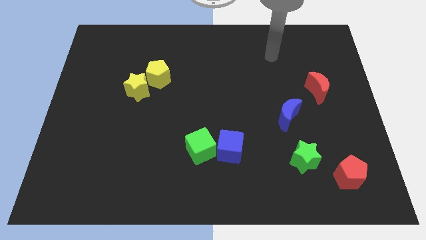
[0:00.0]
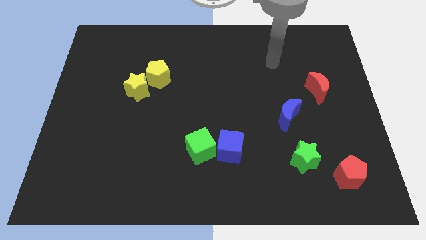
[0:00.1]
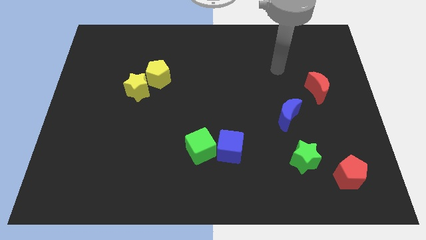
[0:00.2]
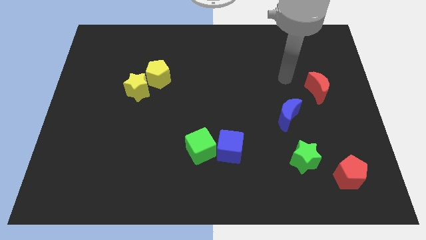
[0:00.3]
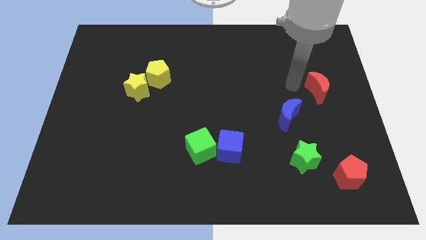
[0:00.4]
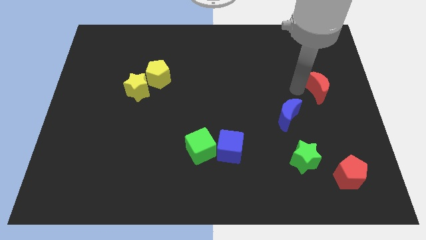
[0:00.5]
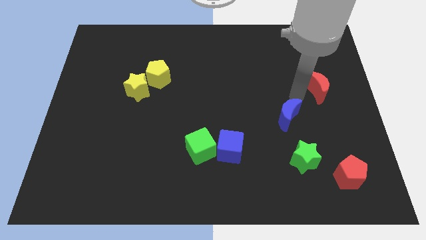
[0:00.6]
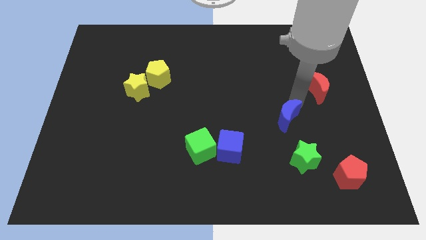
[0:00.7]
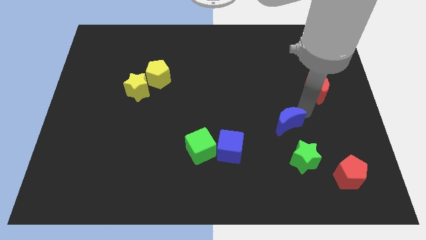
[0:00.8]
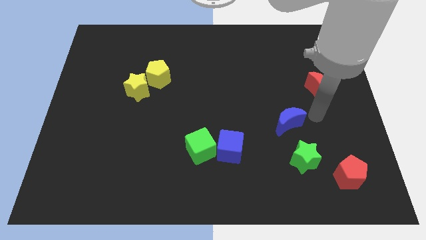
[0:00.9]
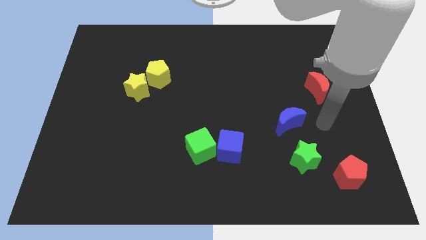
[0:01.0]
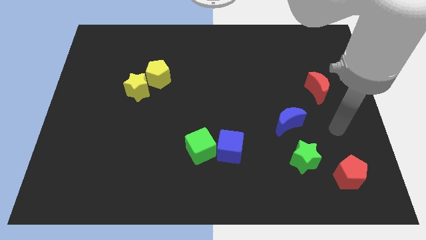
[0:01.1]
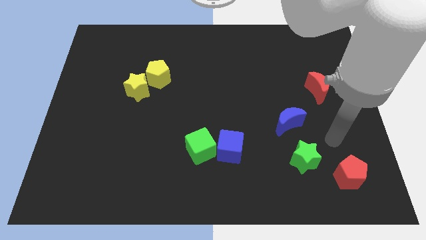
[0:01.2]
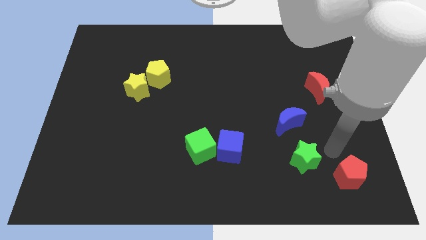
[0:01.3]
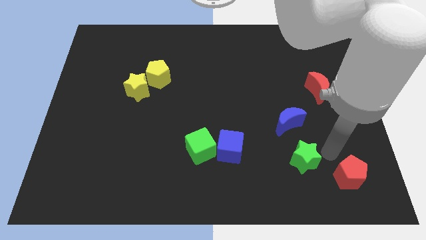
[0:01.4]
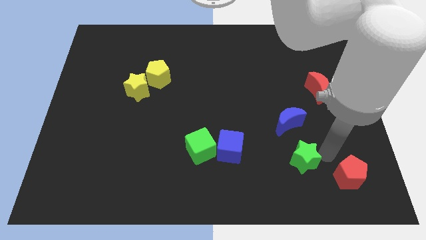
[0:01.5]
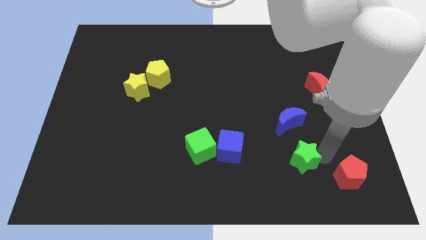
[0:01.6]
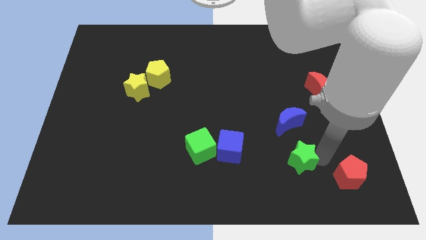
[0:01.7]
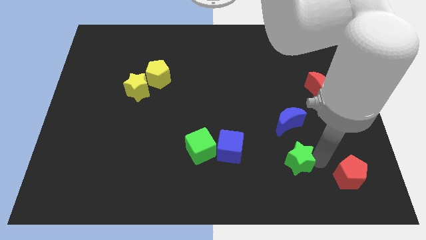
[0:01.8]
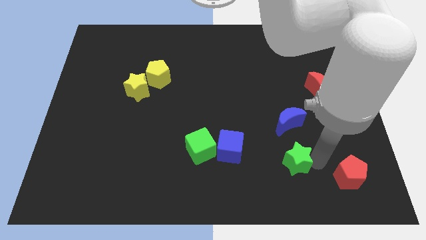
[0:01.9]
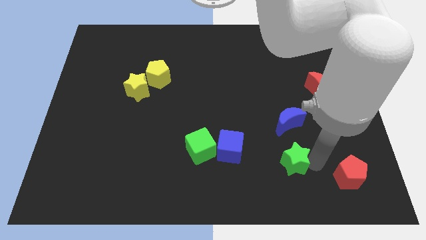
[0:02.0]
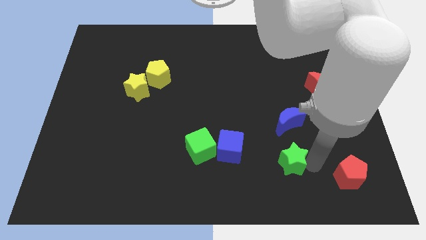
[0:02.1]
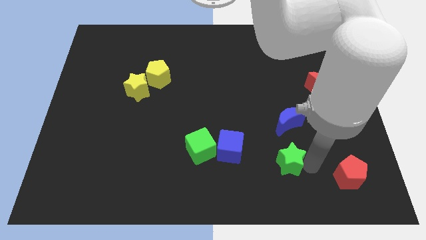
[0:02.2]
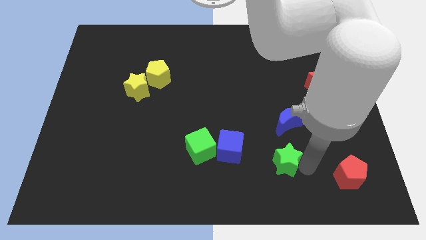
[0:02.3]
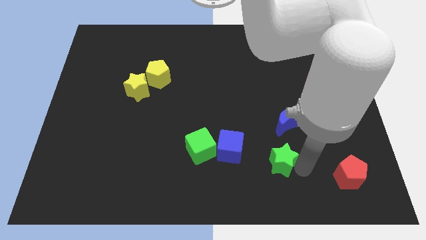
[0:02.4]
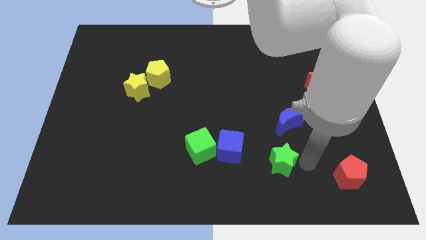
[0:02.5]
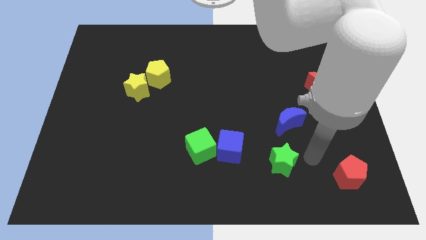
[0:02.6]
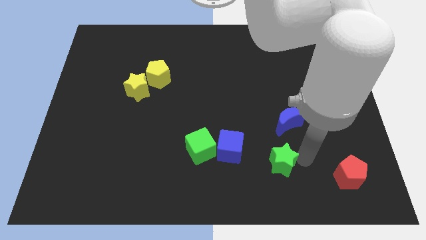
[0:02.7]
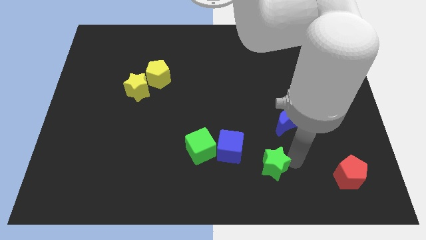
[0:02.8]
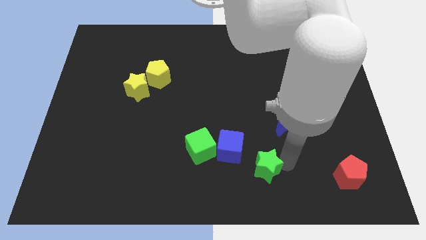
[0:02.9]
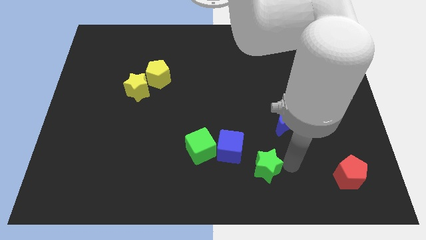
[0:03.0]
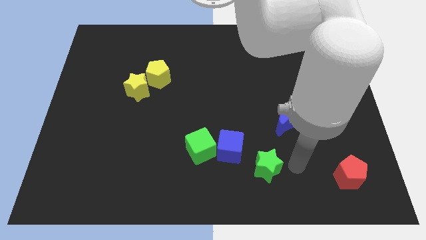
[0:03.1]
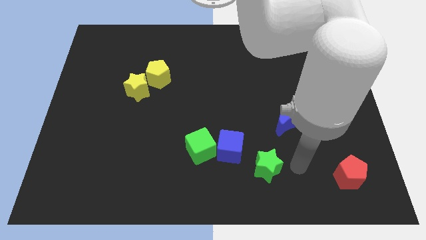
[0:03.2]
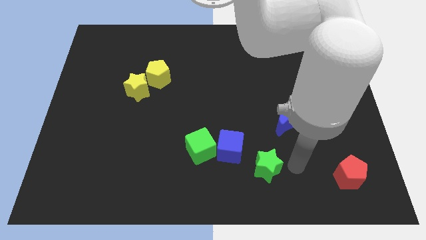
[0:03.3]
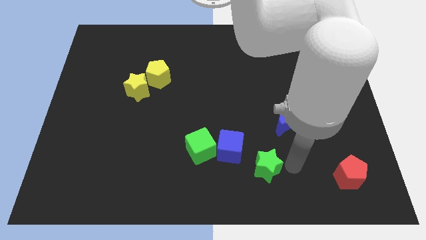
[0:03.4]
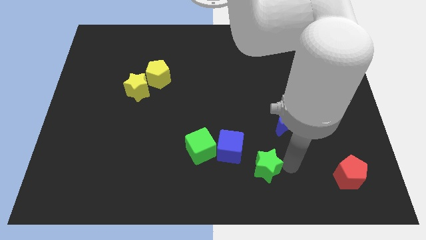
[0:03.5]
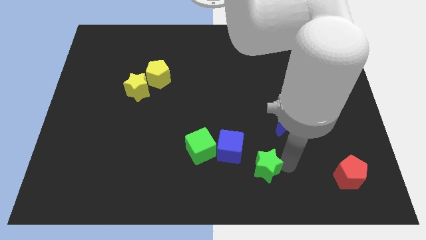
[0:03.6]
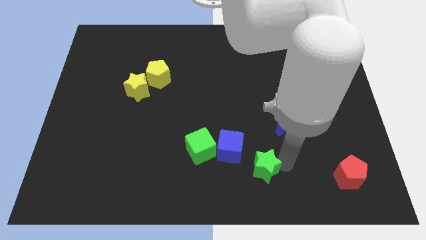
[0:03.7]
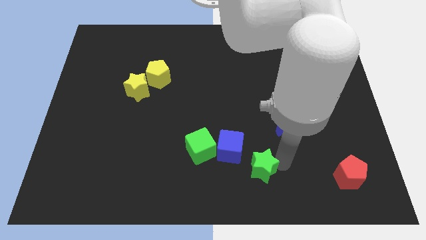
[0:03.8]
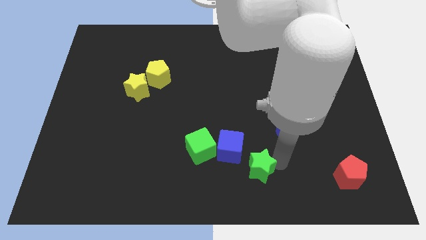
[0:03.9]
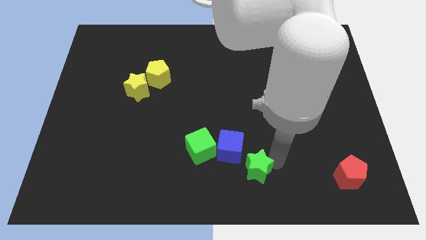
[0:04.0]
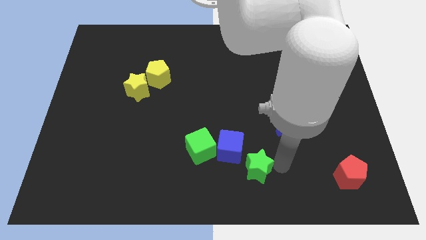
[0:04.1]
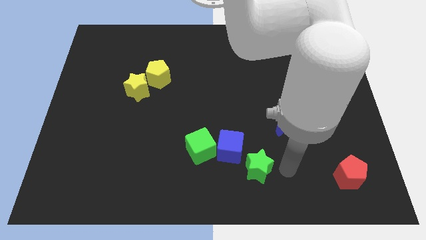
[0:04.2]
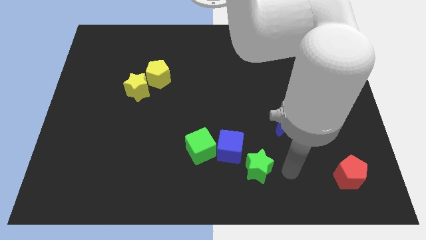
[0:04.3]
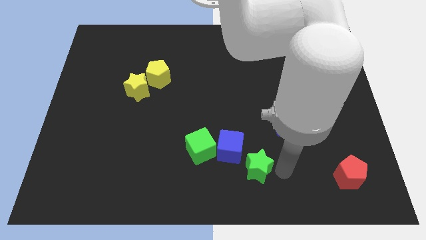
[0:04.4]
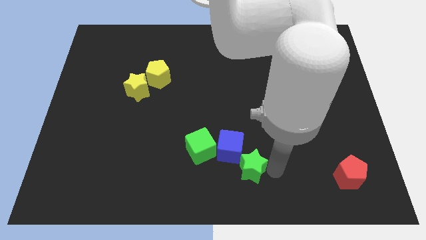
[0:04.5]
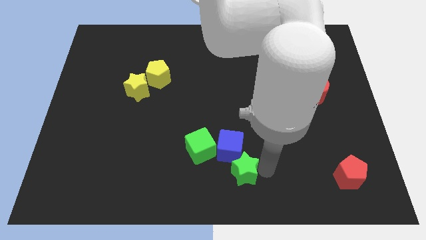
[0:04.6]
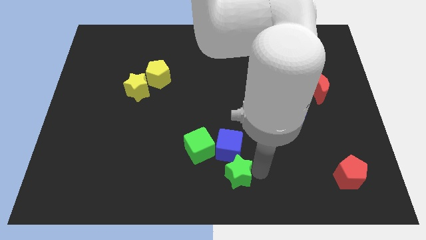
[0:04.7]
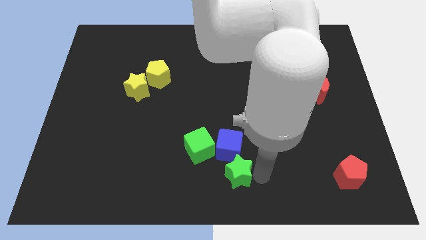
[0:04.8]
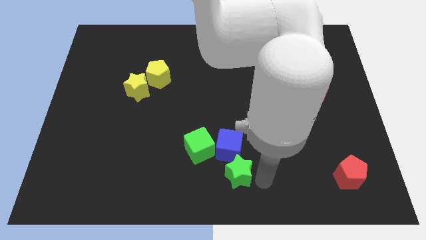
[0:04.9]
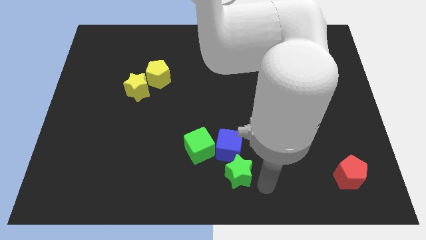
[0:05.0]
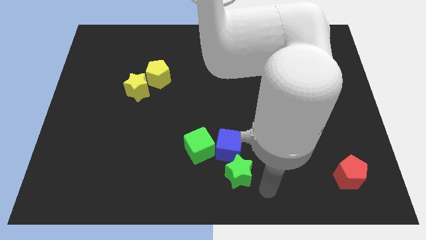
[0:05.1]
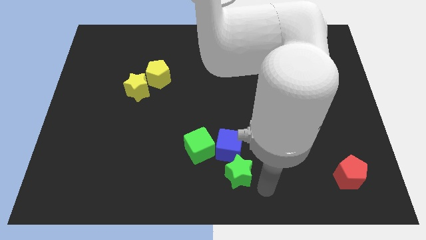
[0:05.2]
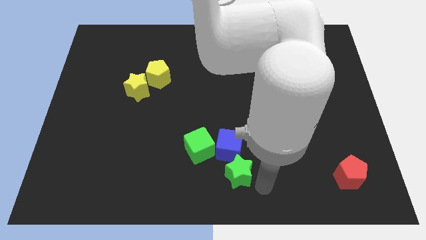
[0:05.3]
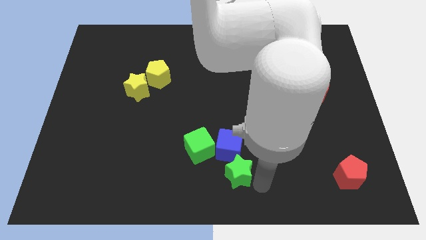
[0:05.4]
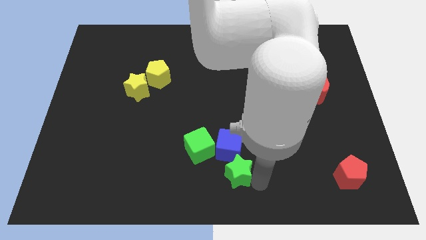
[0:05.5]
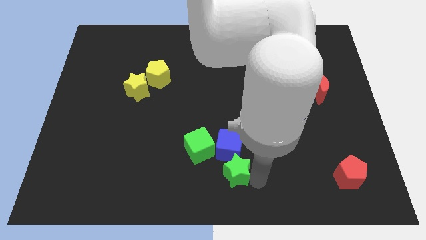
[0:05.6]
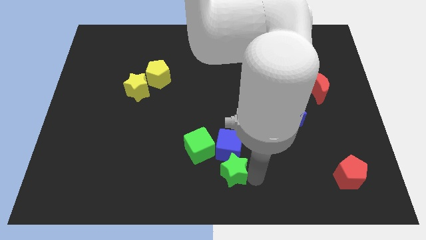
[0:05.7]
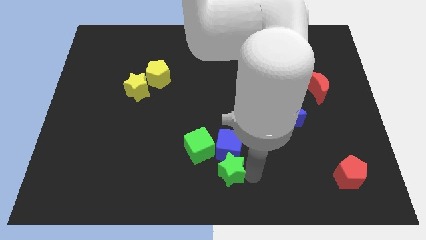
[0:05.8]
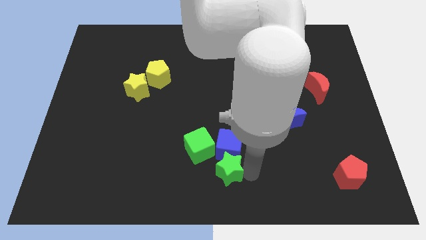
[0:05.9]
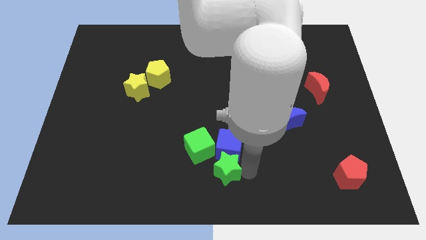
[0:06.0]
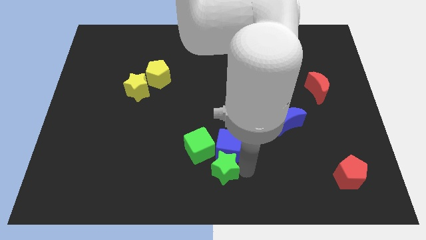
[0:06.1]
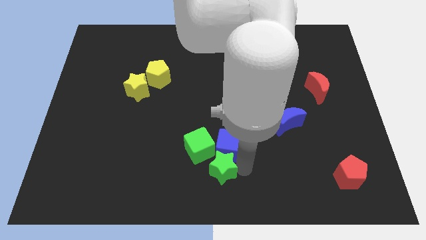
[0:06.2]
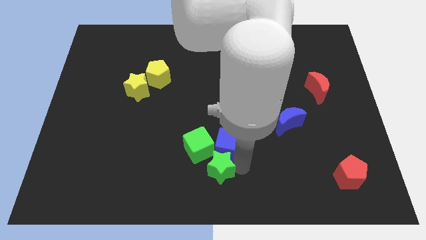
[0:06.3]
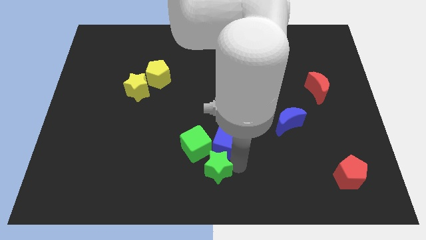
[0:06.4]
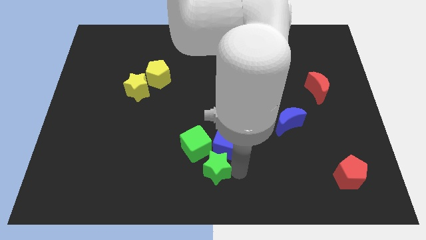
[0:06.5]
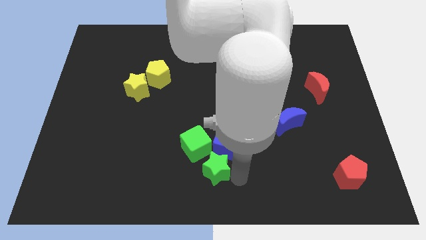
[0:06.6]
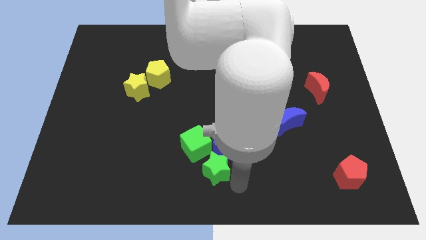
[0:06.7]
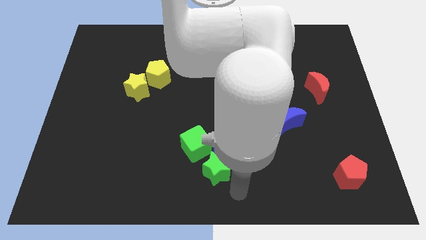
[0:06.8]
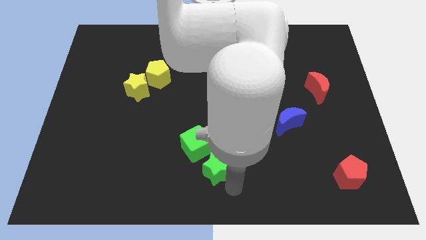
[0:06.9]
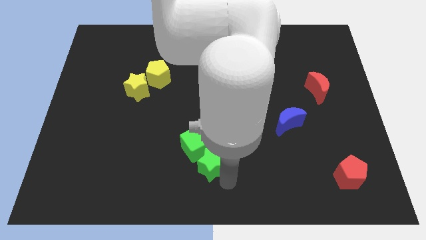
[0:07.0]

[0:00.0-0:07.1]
push the green star close to the green cube
